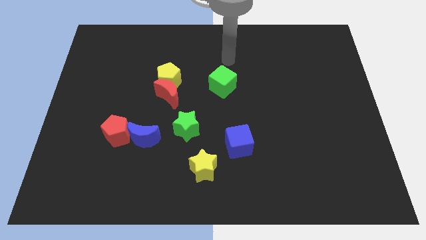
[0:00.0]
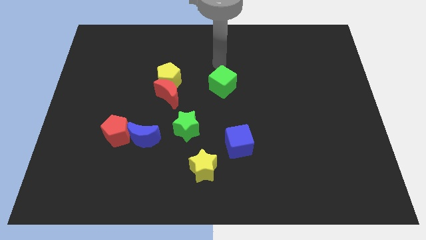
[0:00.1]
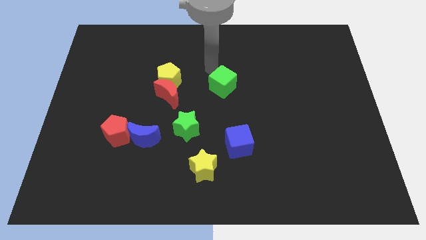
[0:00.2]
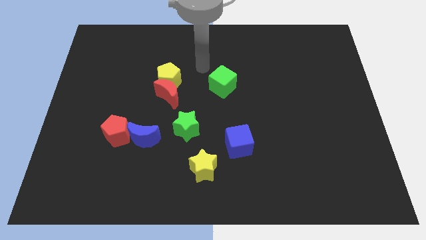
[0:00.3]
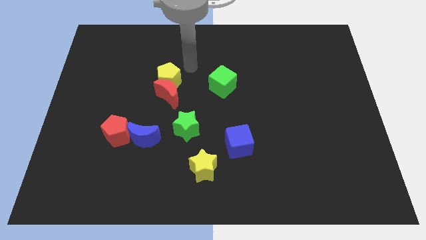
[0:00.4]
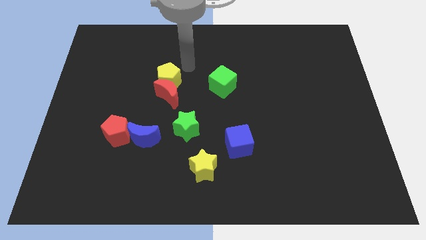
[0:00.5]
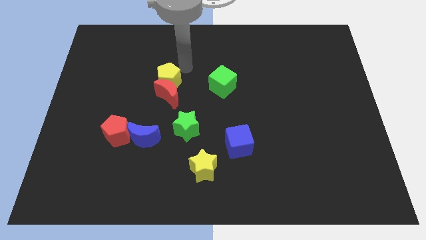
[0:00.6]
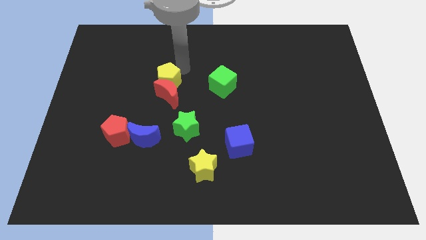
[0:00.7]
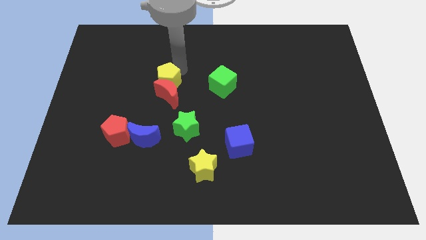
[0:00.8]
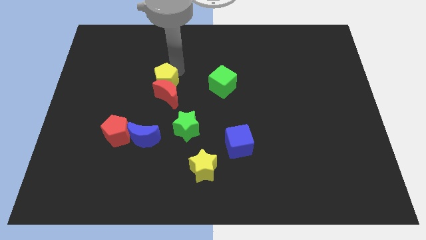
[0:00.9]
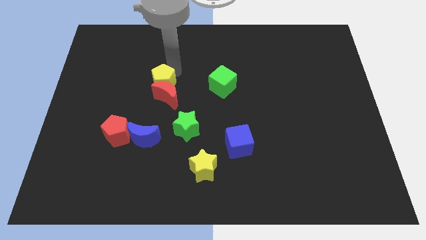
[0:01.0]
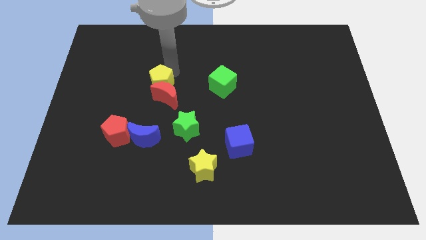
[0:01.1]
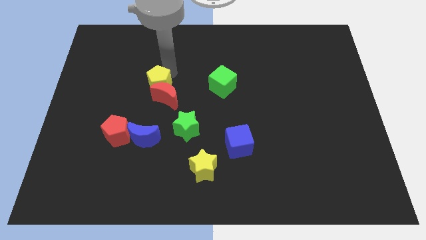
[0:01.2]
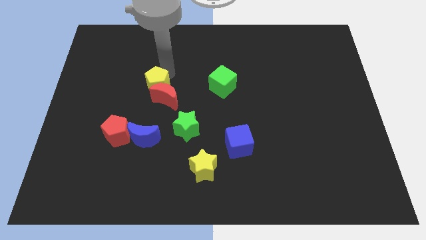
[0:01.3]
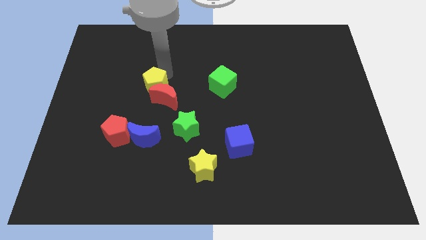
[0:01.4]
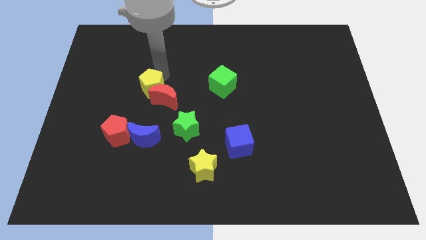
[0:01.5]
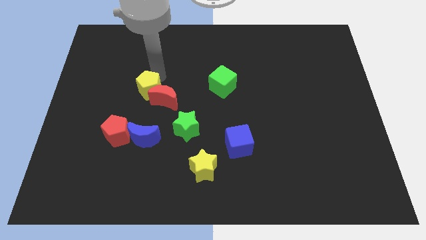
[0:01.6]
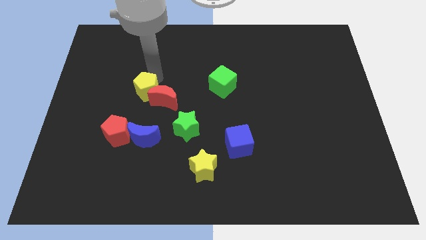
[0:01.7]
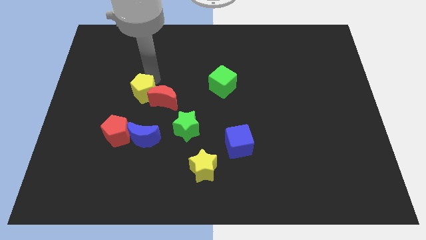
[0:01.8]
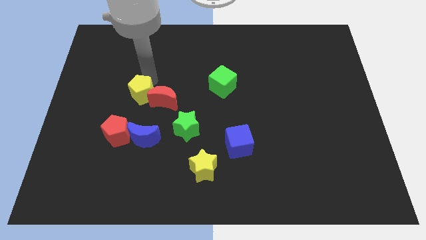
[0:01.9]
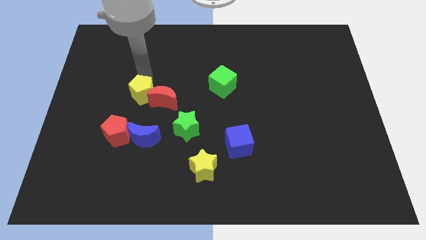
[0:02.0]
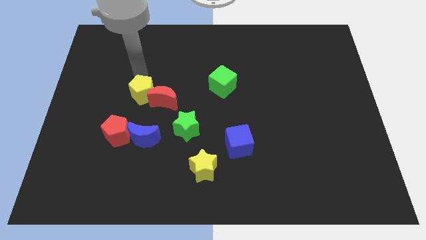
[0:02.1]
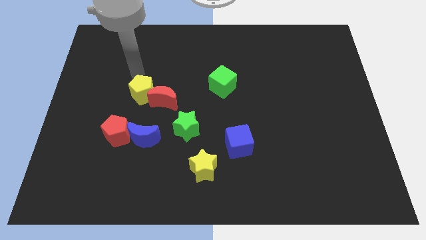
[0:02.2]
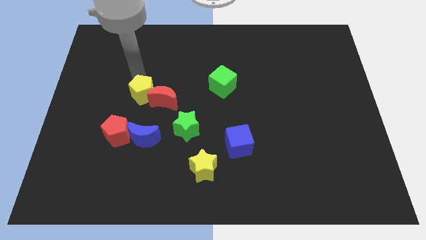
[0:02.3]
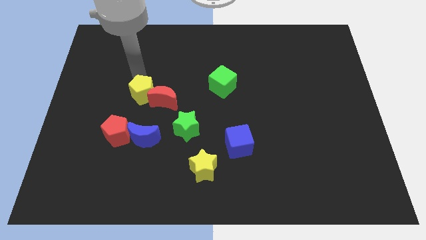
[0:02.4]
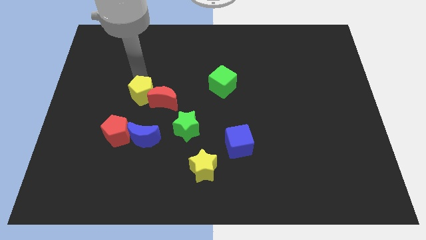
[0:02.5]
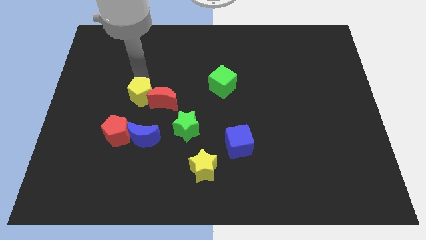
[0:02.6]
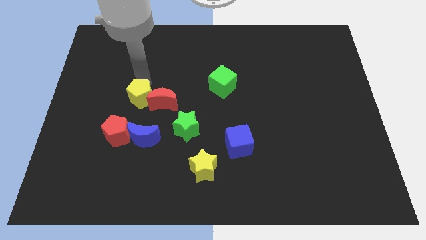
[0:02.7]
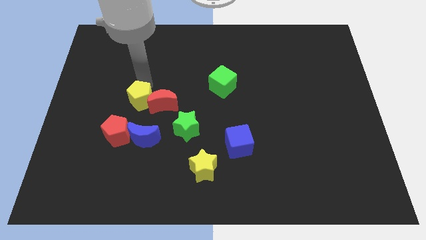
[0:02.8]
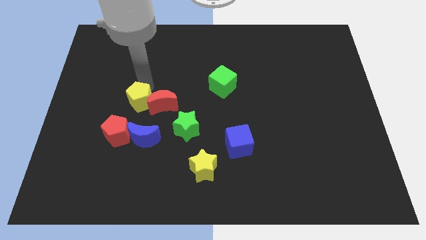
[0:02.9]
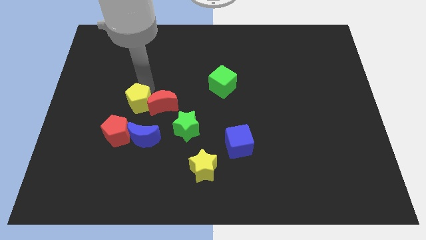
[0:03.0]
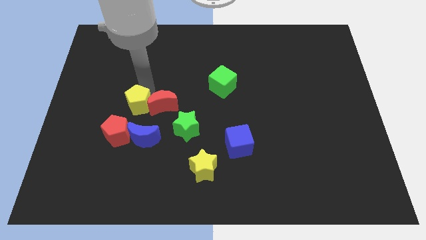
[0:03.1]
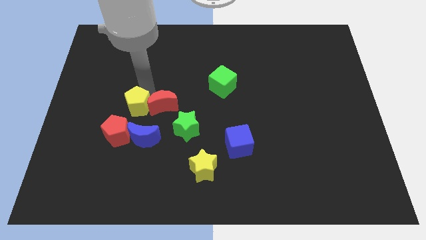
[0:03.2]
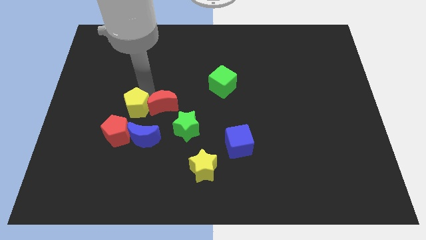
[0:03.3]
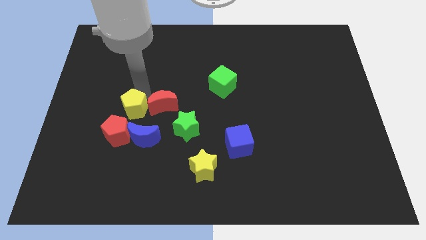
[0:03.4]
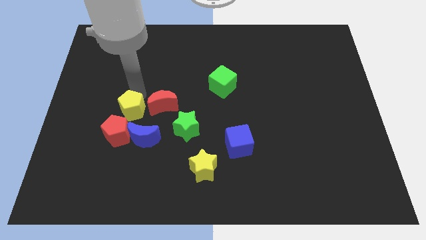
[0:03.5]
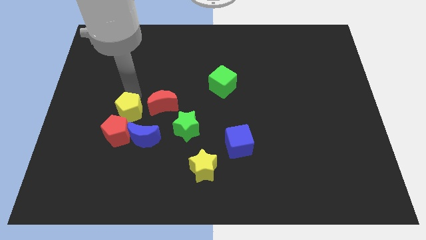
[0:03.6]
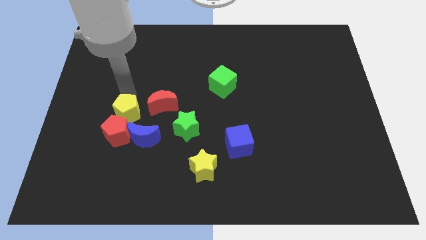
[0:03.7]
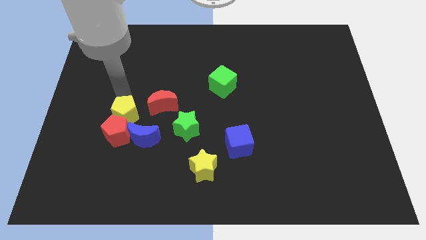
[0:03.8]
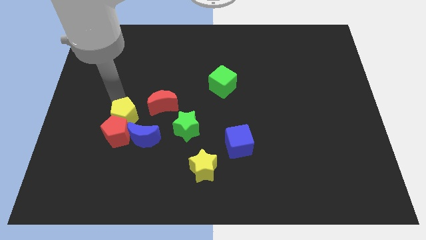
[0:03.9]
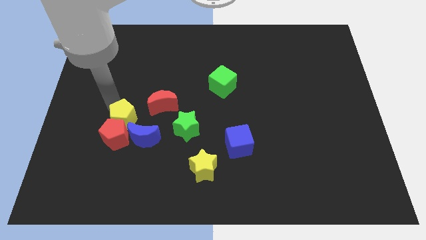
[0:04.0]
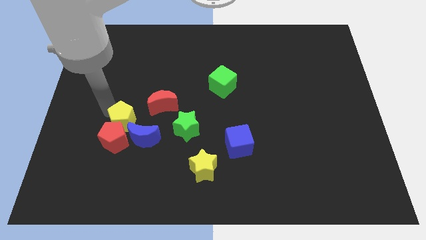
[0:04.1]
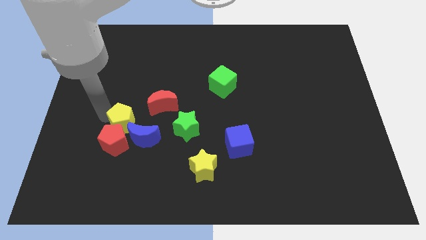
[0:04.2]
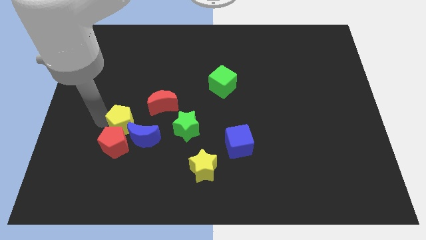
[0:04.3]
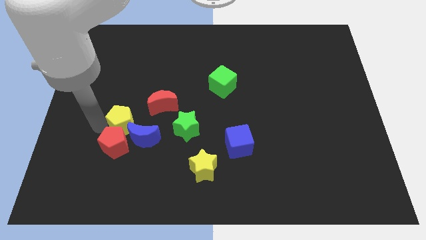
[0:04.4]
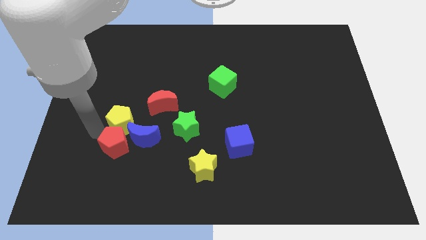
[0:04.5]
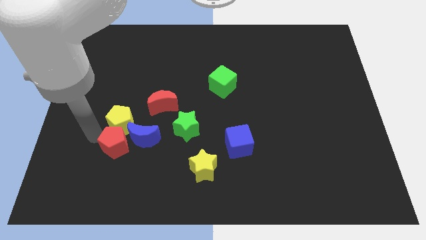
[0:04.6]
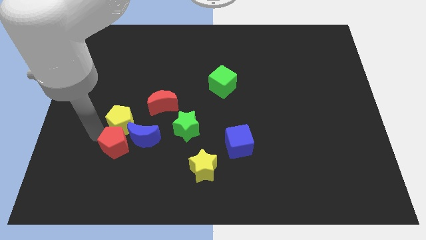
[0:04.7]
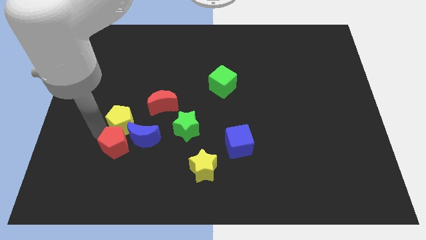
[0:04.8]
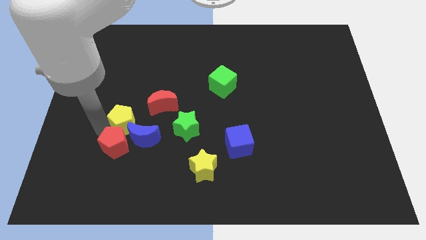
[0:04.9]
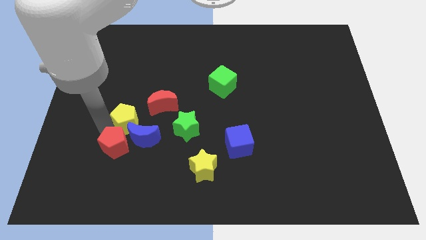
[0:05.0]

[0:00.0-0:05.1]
move the yellow pentagon close to the blue moon

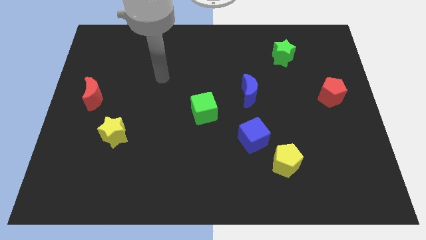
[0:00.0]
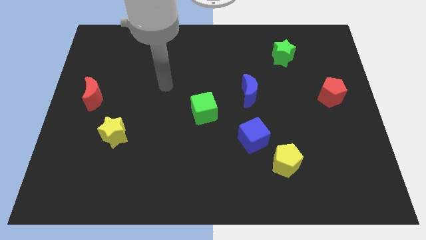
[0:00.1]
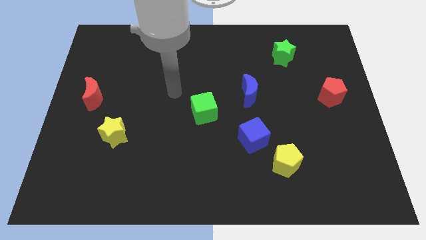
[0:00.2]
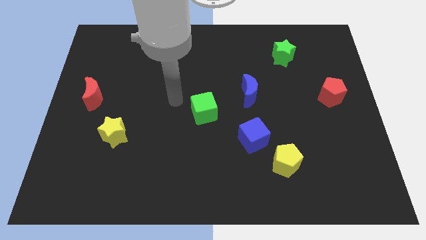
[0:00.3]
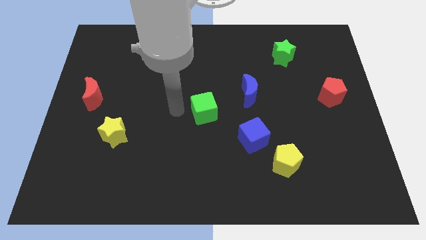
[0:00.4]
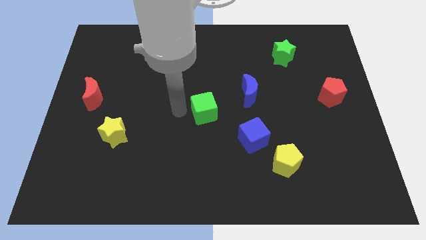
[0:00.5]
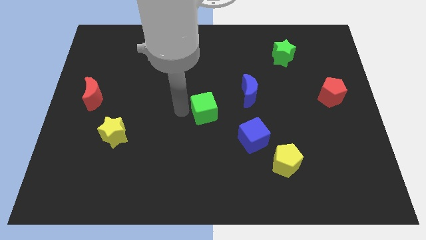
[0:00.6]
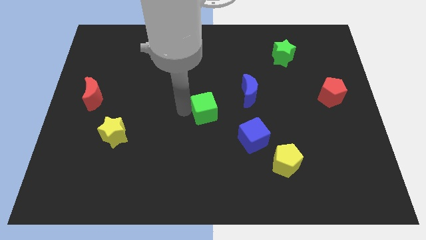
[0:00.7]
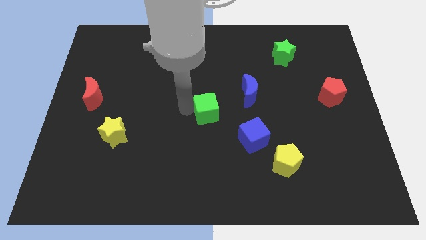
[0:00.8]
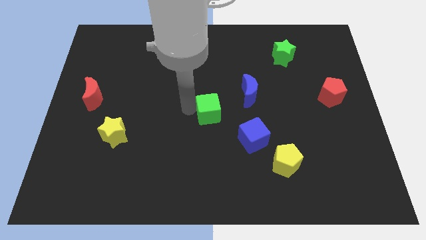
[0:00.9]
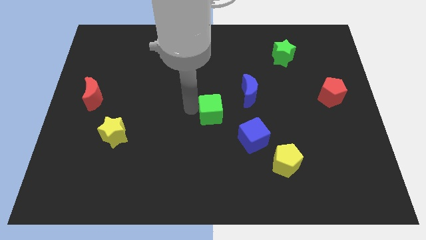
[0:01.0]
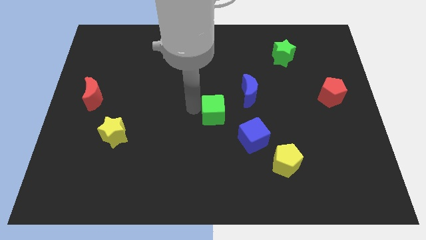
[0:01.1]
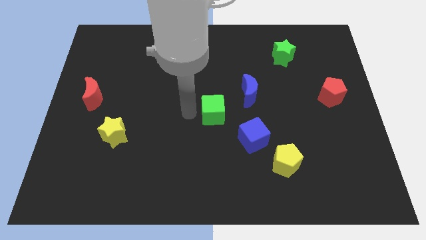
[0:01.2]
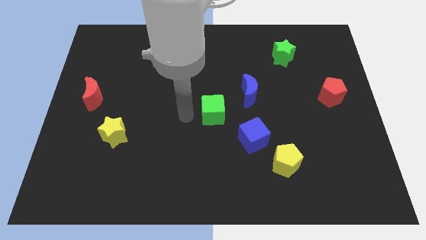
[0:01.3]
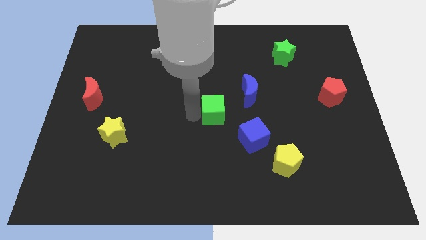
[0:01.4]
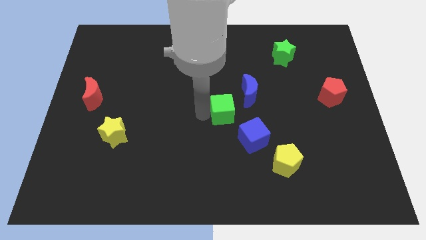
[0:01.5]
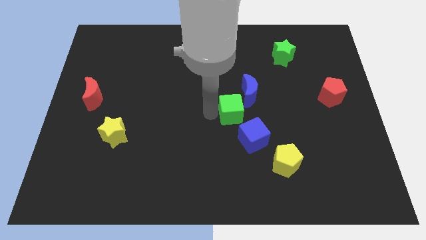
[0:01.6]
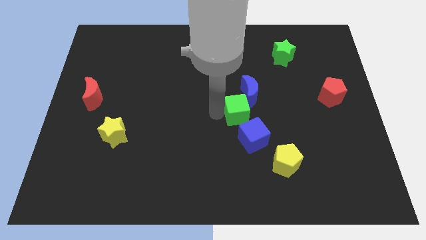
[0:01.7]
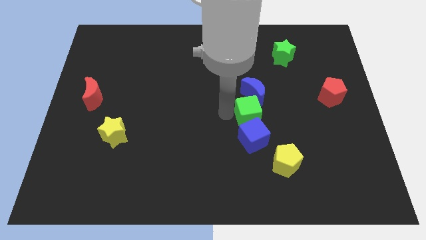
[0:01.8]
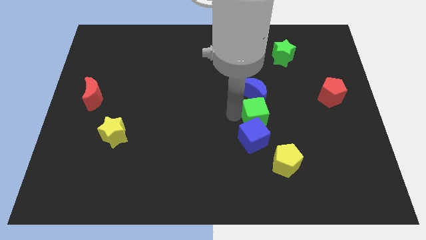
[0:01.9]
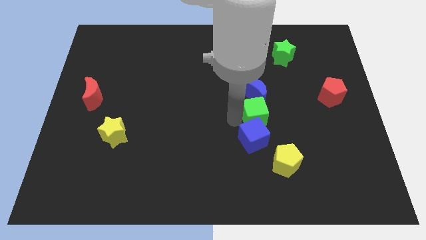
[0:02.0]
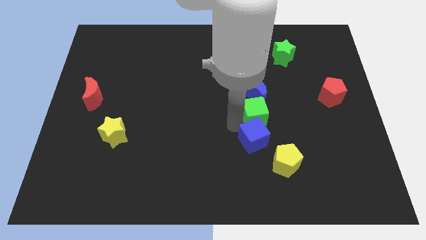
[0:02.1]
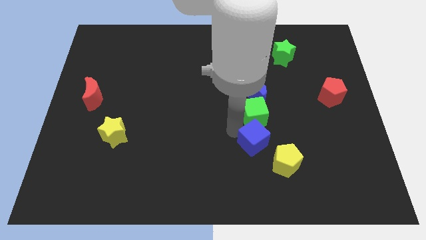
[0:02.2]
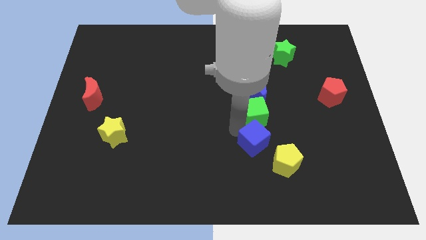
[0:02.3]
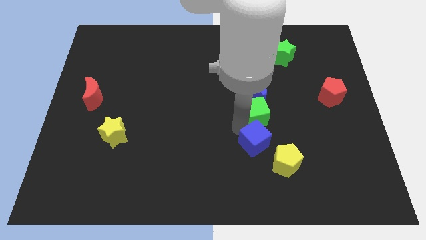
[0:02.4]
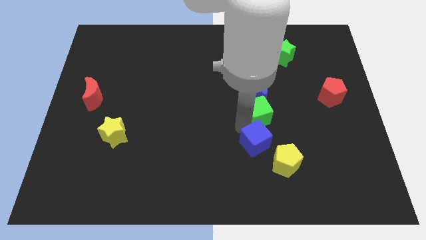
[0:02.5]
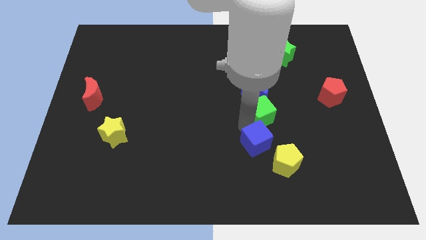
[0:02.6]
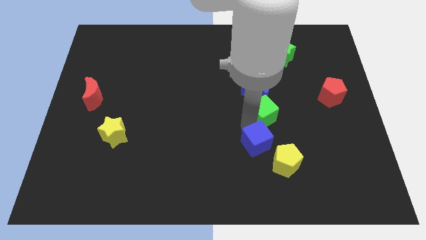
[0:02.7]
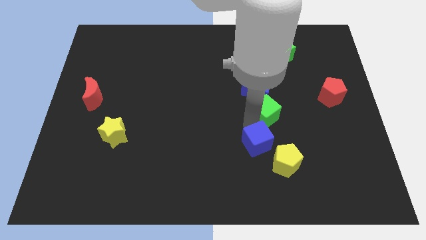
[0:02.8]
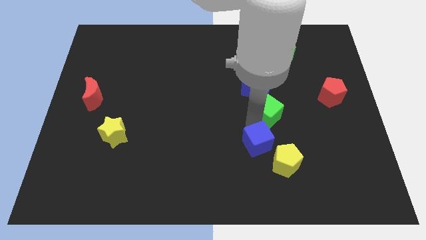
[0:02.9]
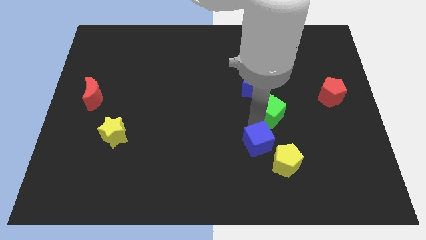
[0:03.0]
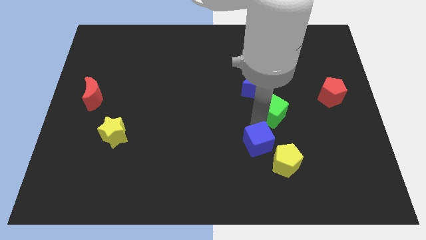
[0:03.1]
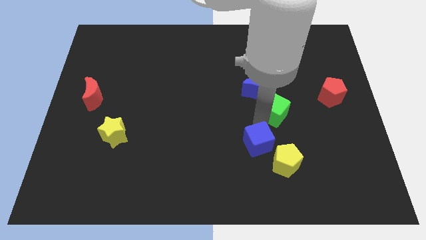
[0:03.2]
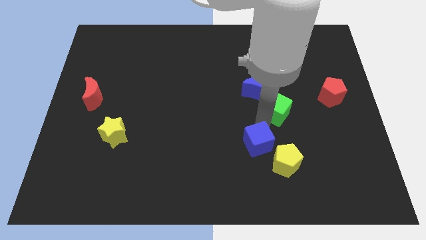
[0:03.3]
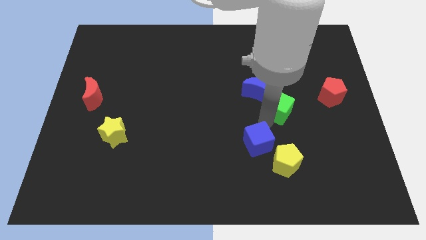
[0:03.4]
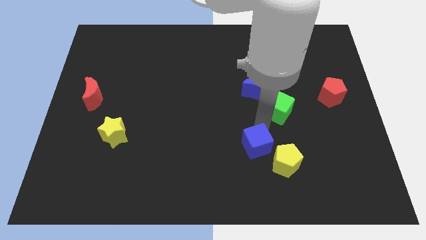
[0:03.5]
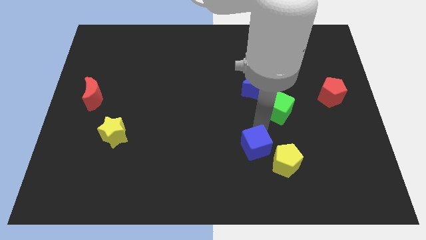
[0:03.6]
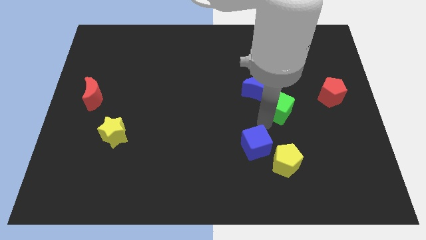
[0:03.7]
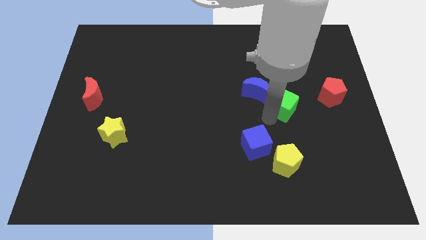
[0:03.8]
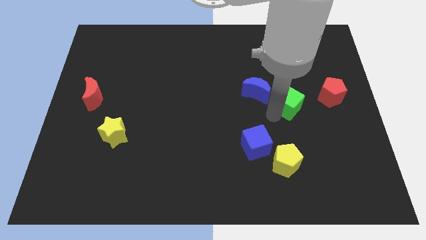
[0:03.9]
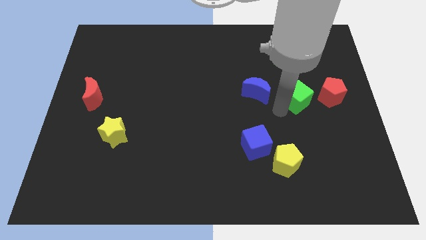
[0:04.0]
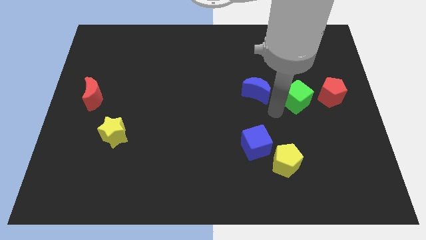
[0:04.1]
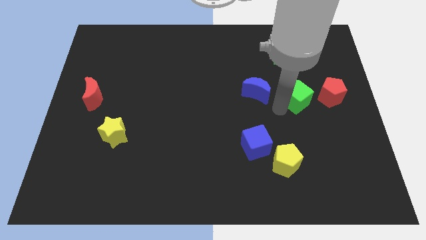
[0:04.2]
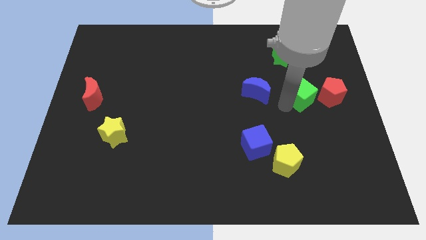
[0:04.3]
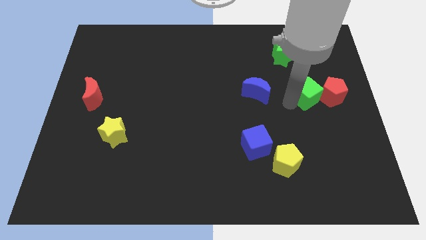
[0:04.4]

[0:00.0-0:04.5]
slide the green cube close to the red pentagon
